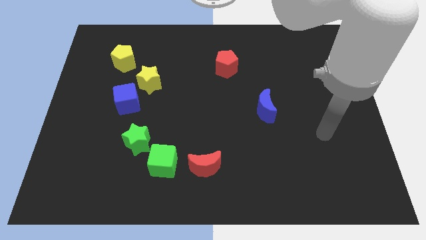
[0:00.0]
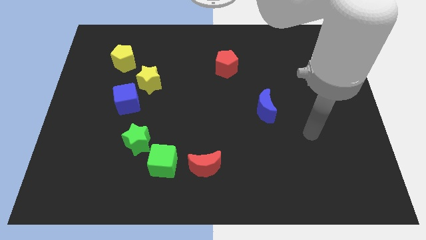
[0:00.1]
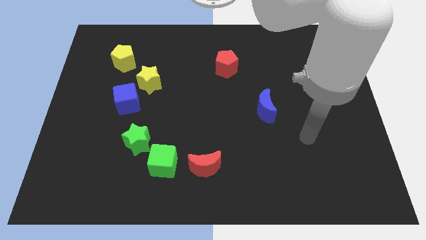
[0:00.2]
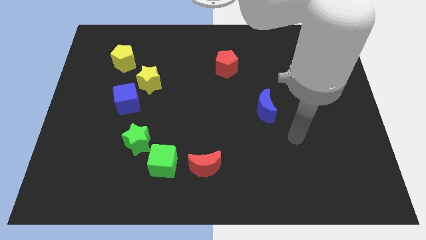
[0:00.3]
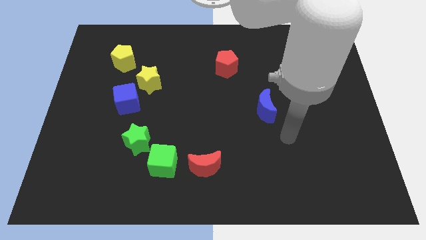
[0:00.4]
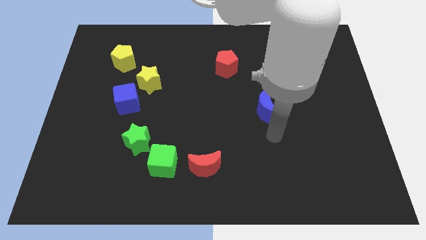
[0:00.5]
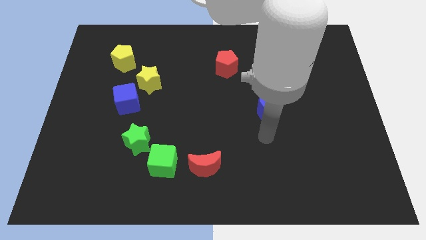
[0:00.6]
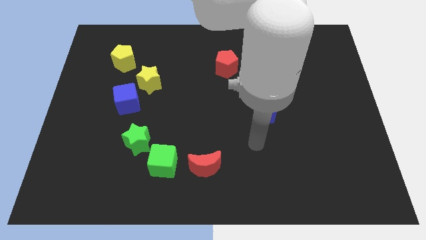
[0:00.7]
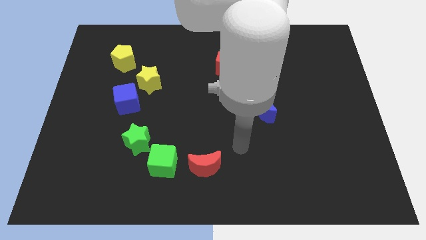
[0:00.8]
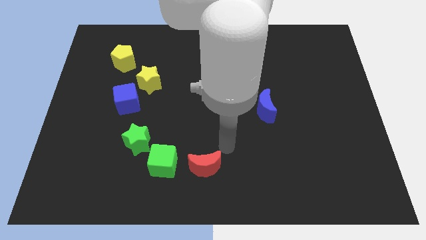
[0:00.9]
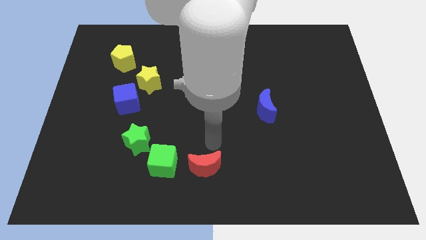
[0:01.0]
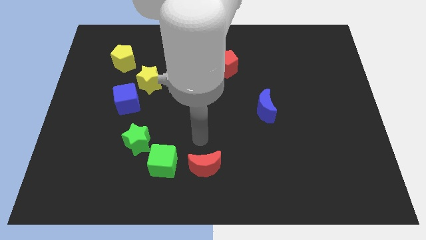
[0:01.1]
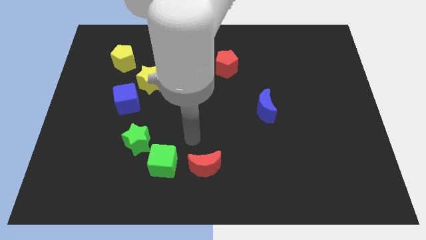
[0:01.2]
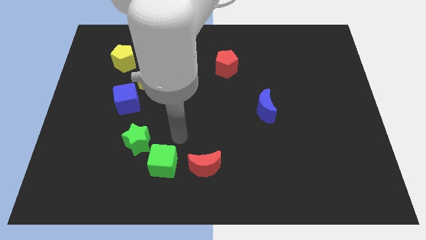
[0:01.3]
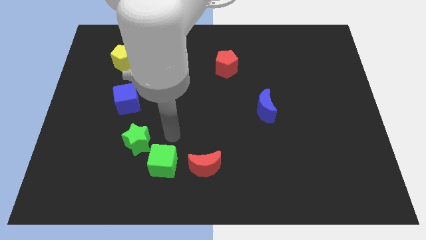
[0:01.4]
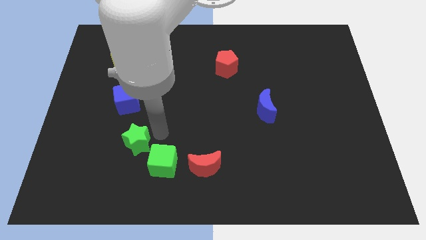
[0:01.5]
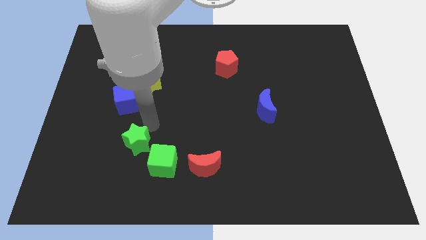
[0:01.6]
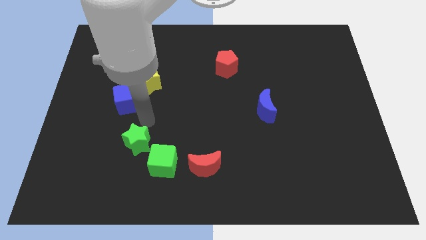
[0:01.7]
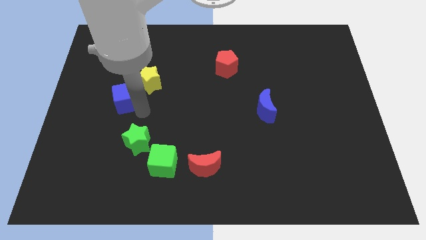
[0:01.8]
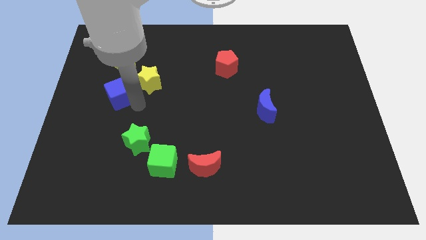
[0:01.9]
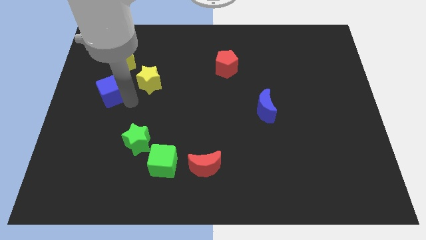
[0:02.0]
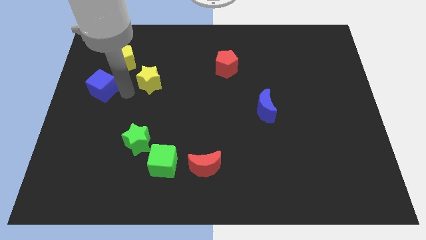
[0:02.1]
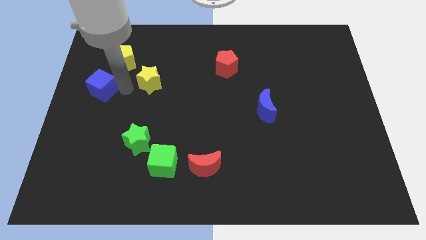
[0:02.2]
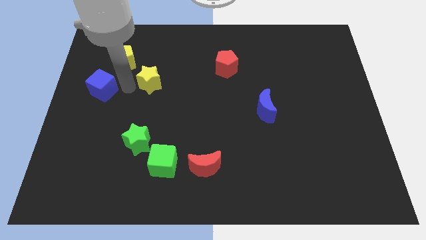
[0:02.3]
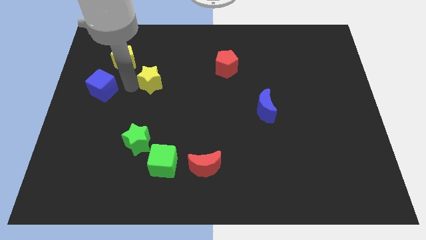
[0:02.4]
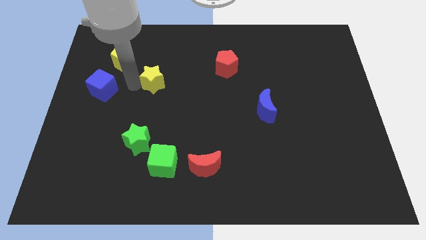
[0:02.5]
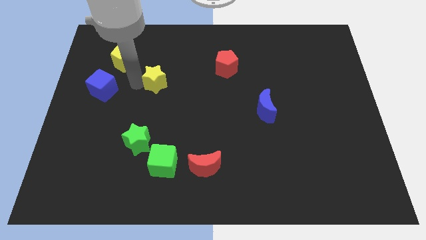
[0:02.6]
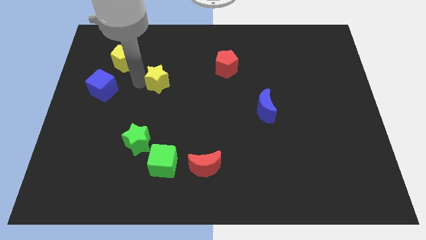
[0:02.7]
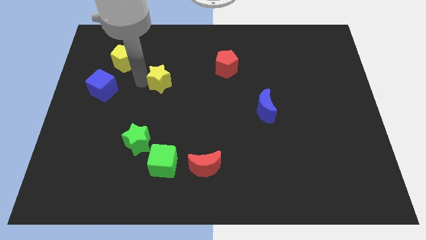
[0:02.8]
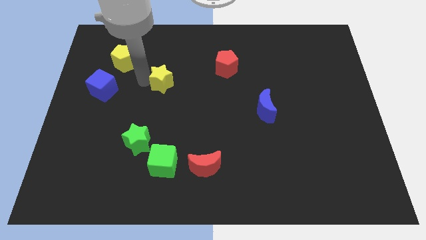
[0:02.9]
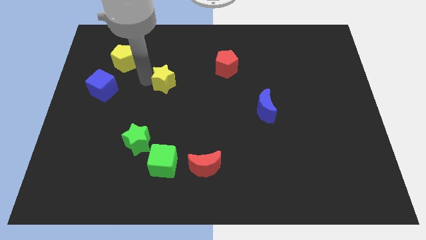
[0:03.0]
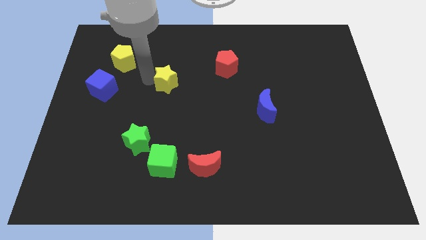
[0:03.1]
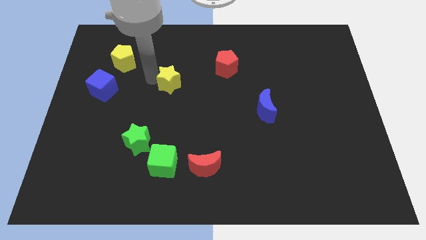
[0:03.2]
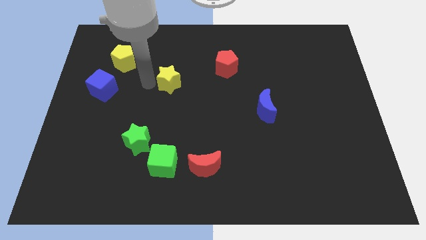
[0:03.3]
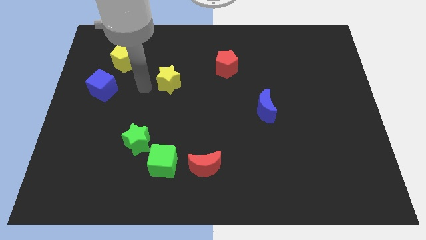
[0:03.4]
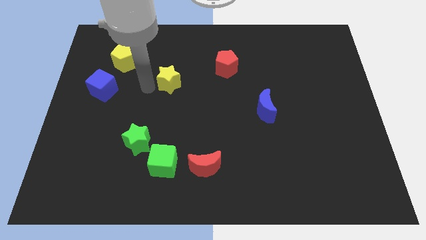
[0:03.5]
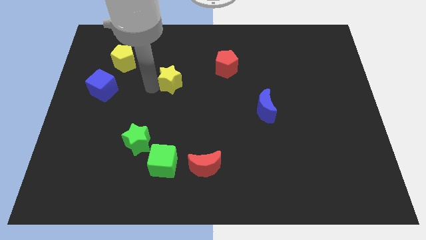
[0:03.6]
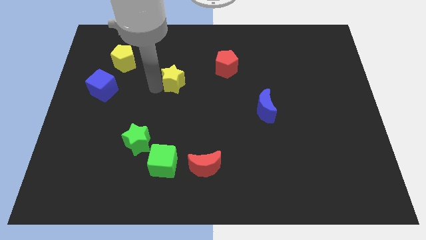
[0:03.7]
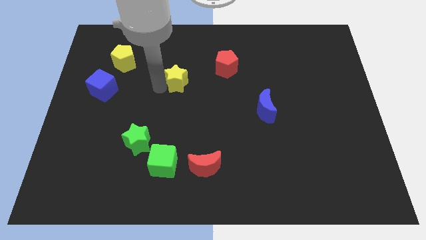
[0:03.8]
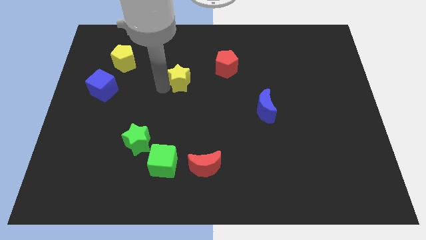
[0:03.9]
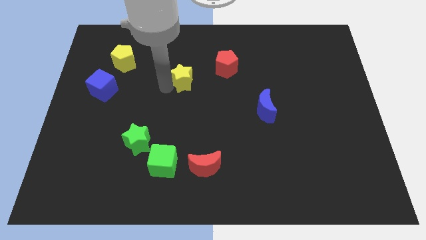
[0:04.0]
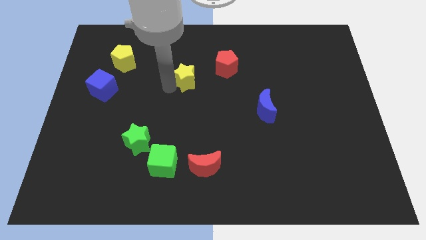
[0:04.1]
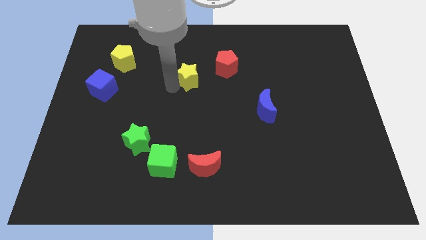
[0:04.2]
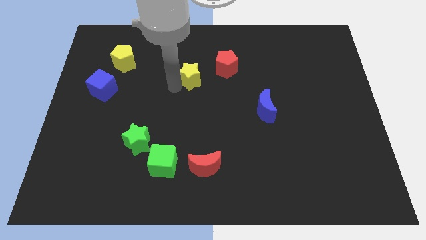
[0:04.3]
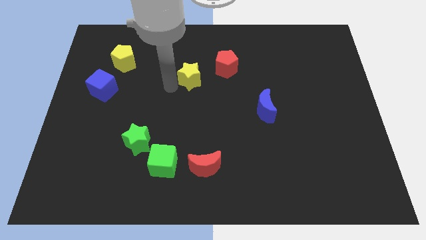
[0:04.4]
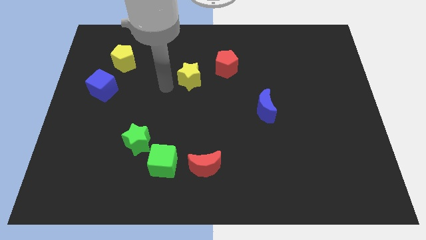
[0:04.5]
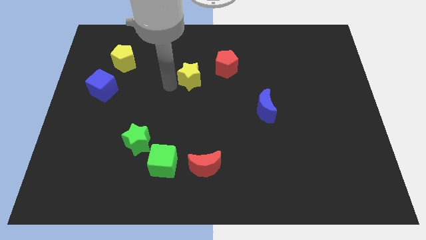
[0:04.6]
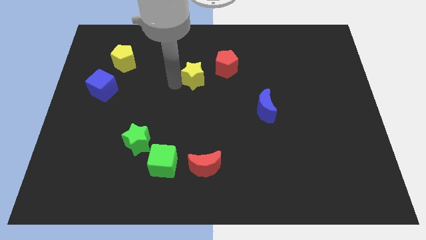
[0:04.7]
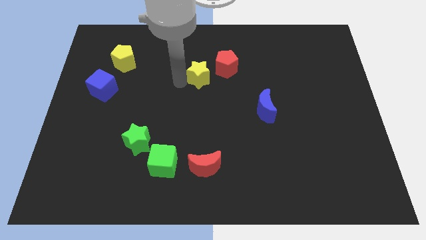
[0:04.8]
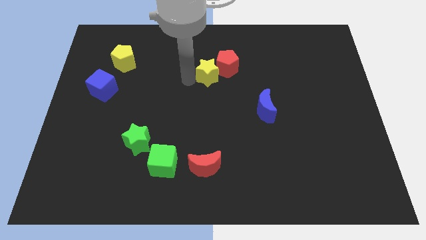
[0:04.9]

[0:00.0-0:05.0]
put the yellow star next to the red pentagon

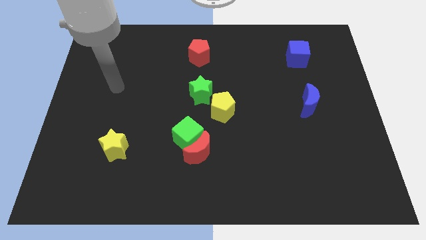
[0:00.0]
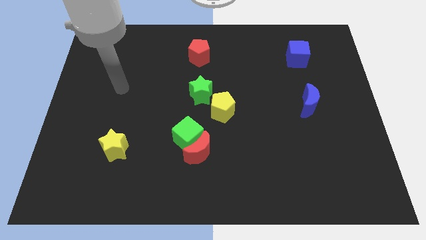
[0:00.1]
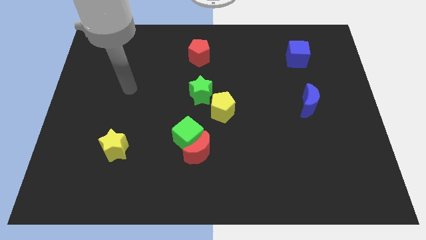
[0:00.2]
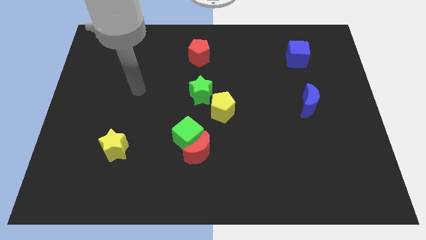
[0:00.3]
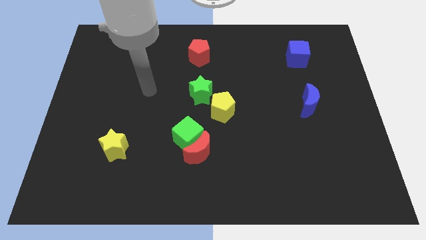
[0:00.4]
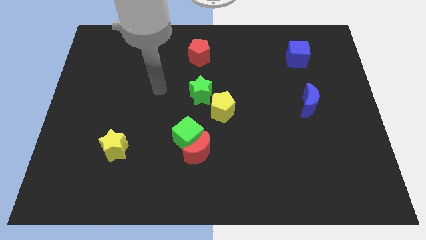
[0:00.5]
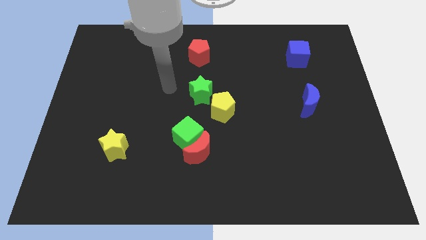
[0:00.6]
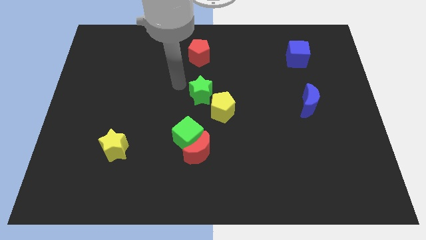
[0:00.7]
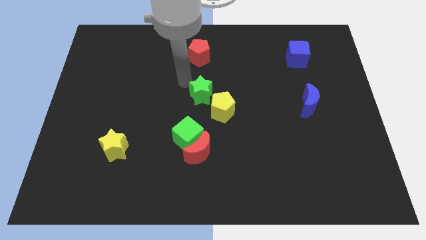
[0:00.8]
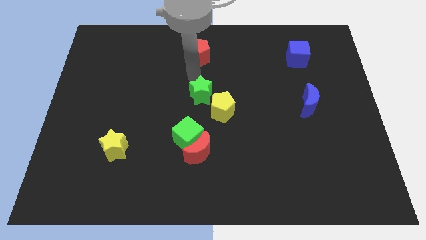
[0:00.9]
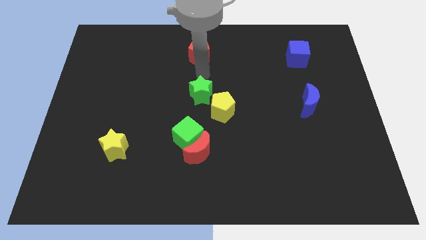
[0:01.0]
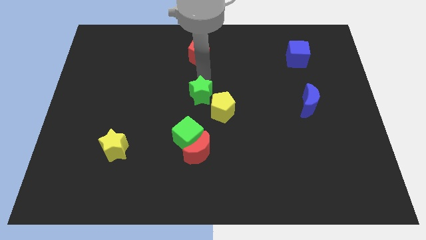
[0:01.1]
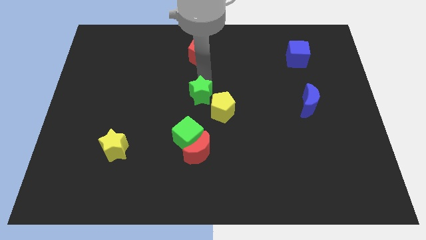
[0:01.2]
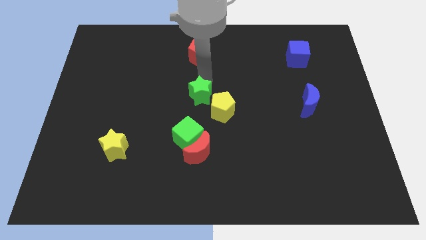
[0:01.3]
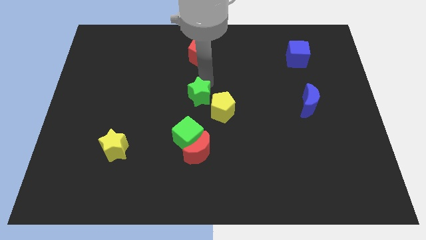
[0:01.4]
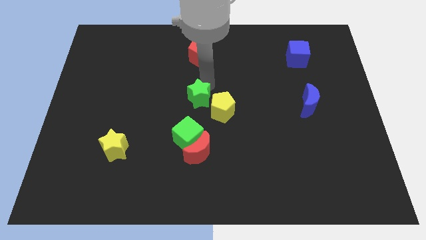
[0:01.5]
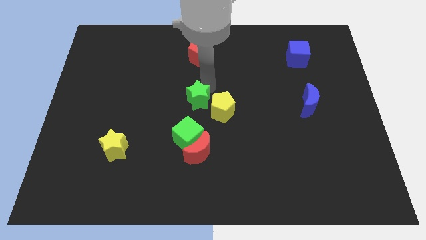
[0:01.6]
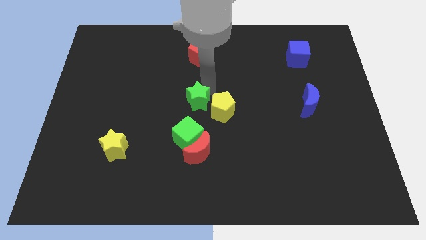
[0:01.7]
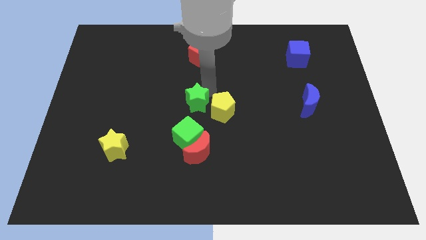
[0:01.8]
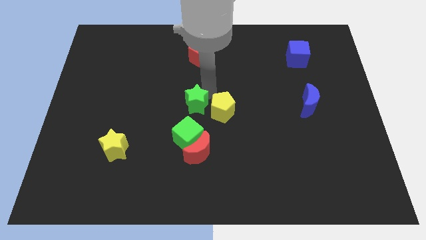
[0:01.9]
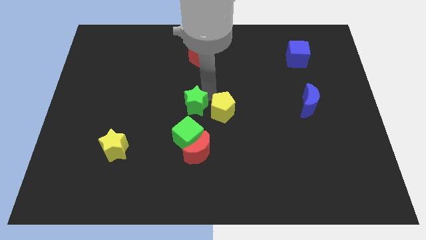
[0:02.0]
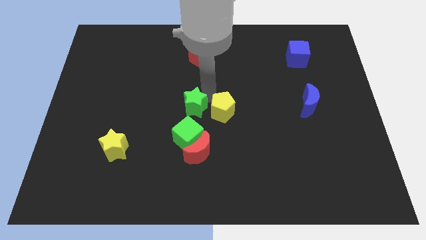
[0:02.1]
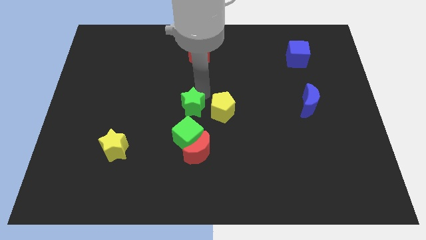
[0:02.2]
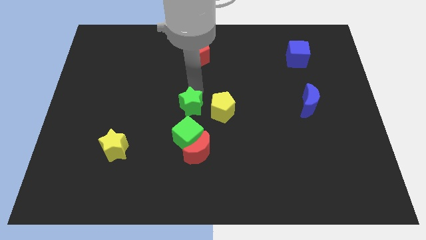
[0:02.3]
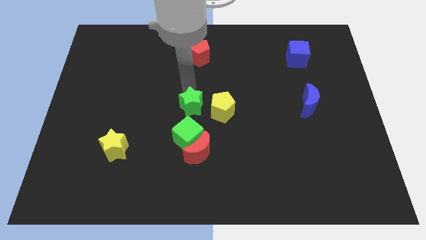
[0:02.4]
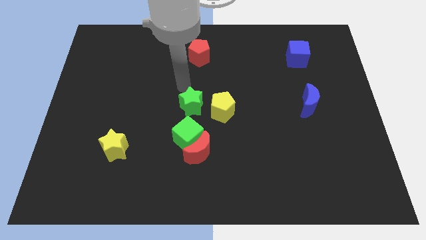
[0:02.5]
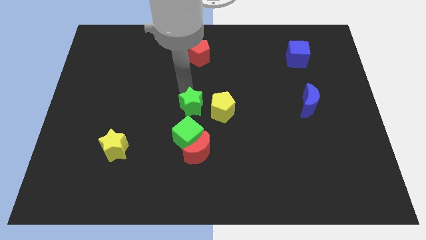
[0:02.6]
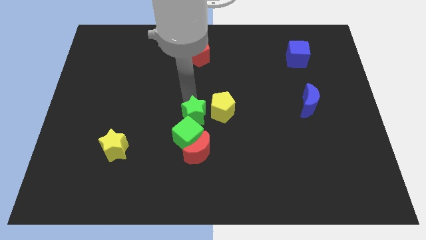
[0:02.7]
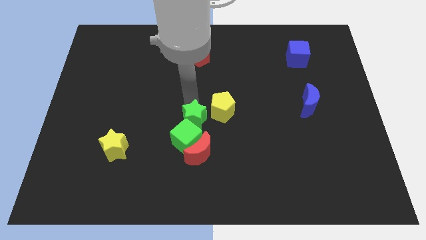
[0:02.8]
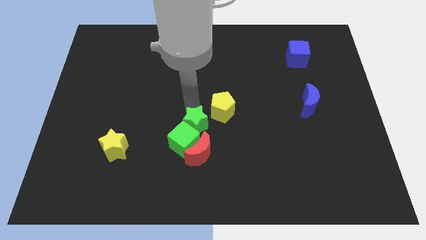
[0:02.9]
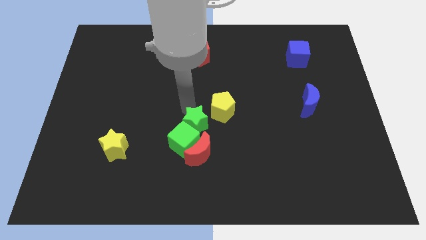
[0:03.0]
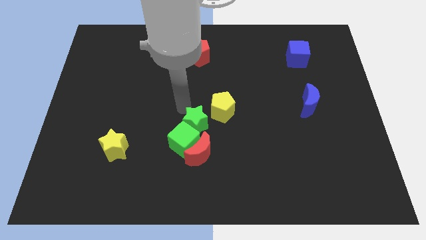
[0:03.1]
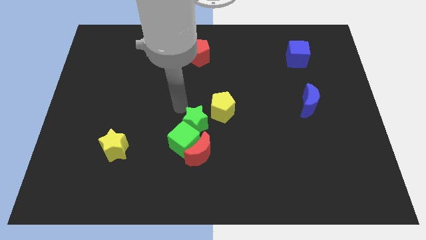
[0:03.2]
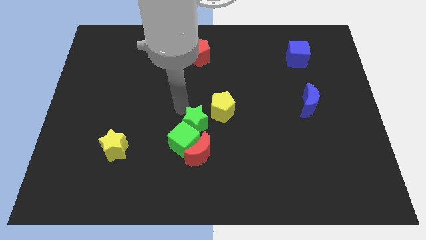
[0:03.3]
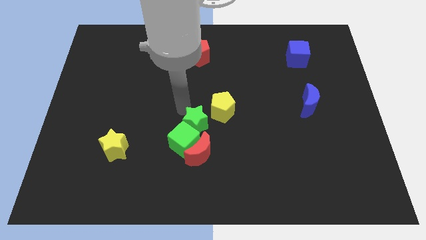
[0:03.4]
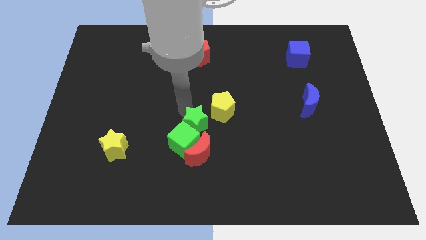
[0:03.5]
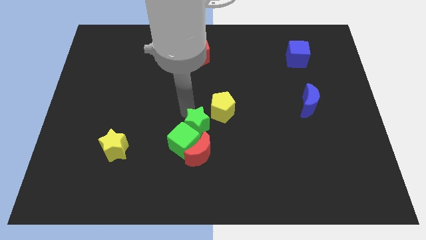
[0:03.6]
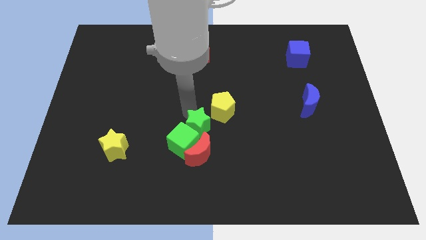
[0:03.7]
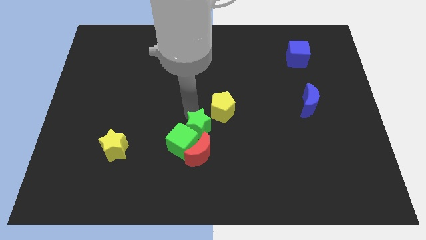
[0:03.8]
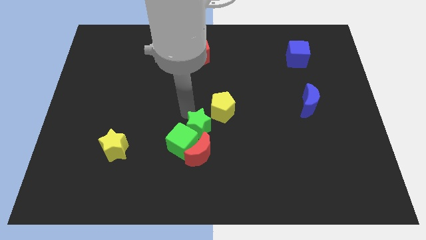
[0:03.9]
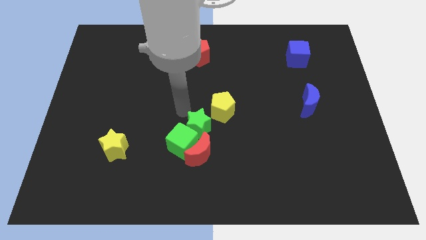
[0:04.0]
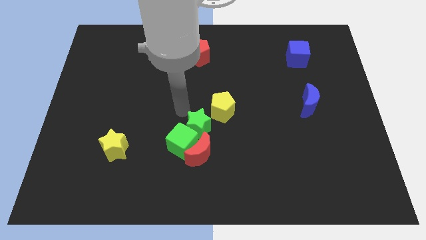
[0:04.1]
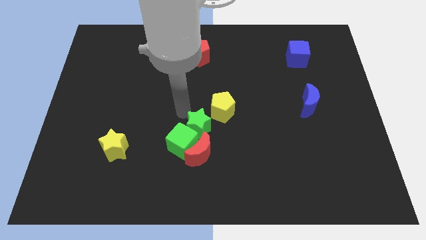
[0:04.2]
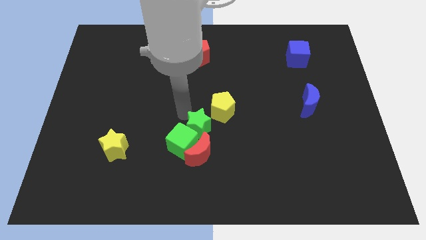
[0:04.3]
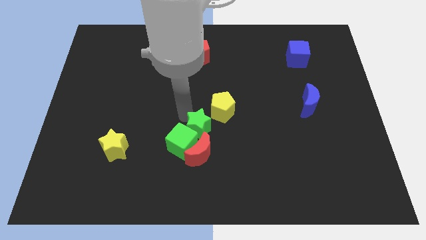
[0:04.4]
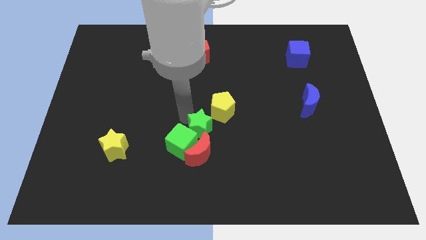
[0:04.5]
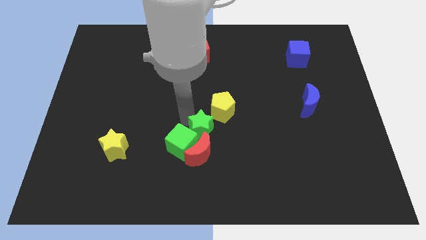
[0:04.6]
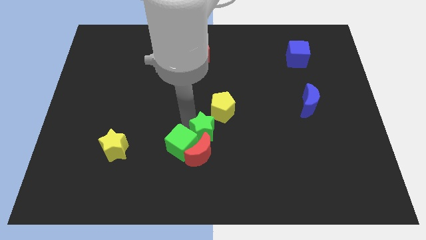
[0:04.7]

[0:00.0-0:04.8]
put the green star to the red moon
